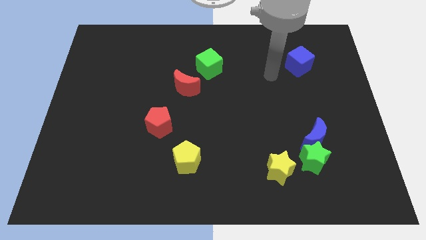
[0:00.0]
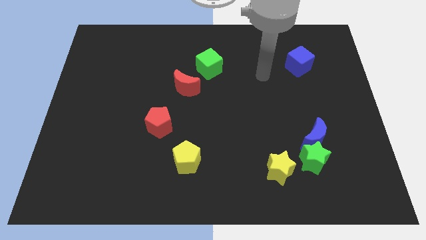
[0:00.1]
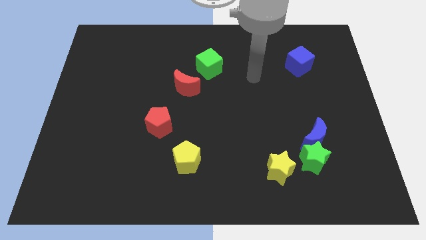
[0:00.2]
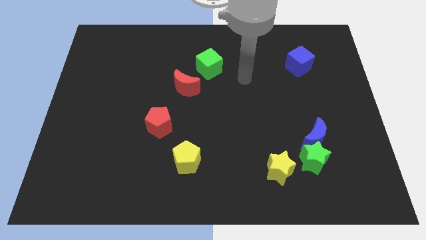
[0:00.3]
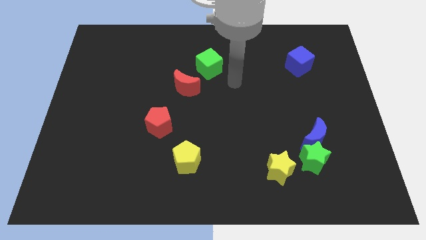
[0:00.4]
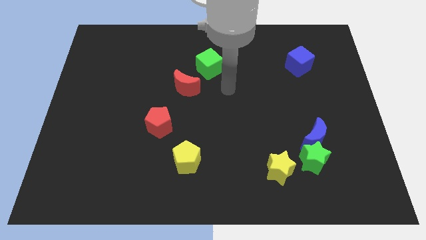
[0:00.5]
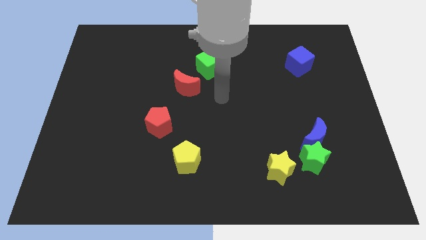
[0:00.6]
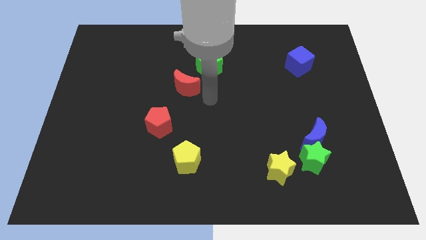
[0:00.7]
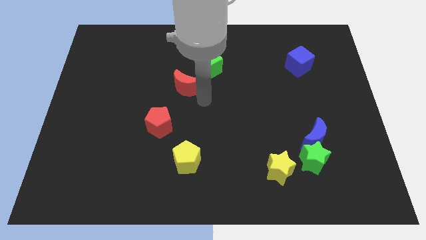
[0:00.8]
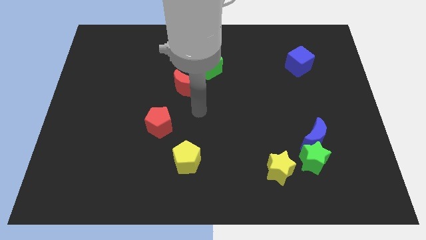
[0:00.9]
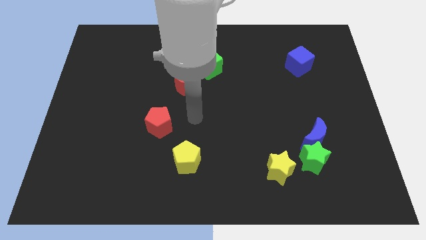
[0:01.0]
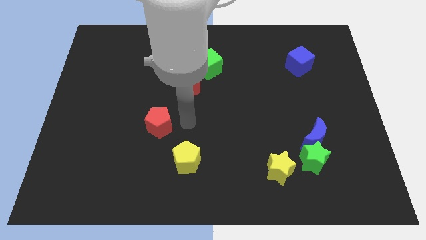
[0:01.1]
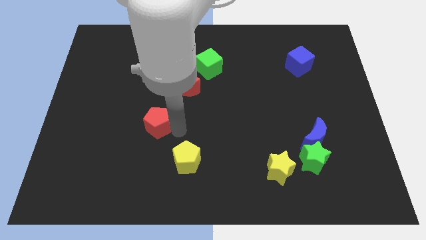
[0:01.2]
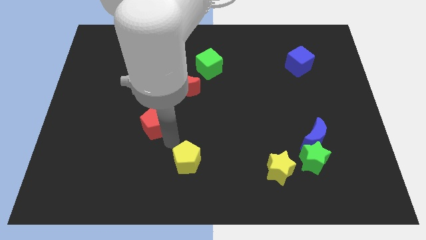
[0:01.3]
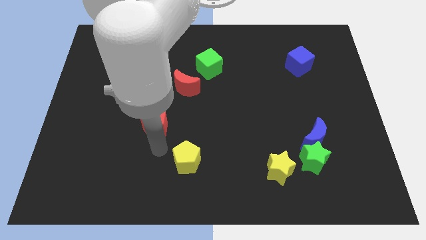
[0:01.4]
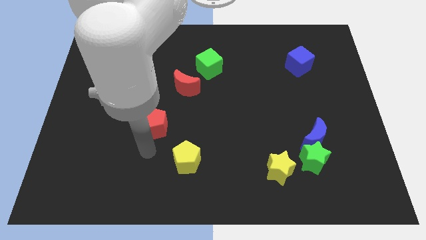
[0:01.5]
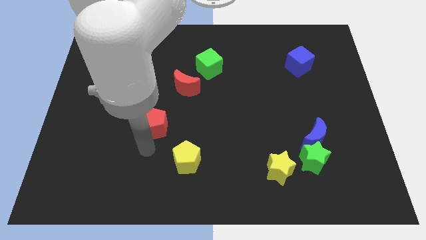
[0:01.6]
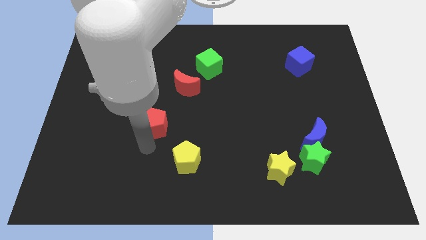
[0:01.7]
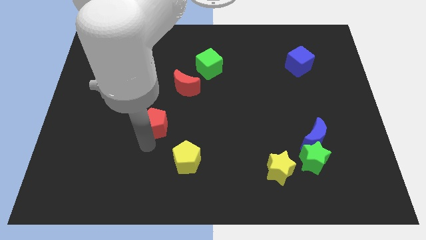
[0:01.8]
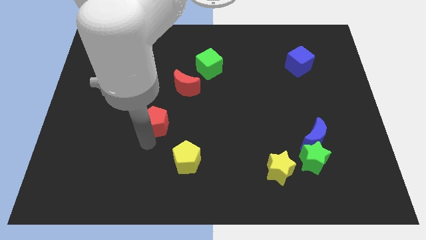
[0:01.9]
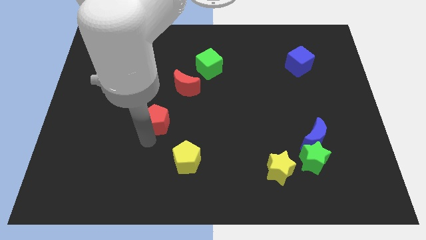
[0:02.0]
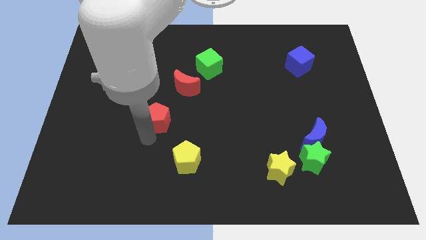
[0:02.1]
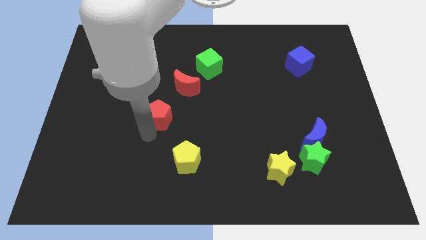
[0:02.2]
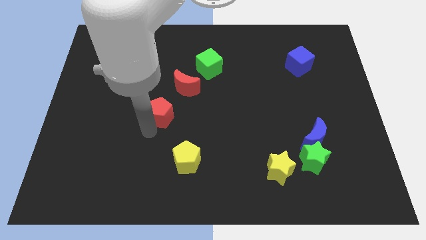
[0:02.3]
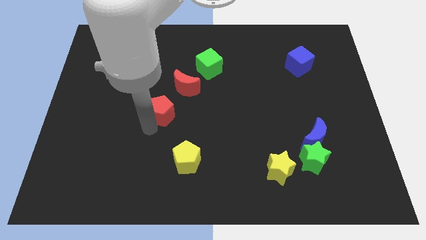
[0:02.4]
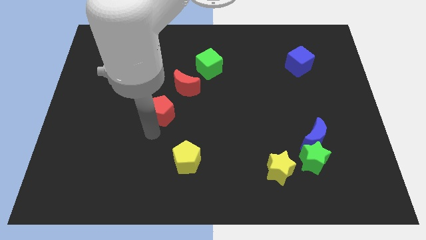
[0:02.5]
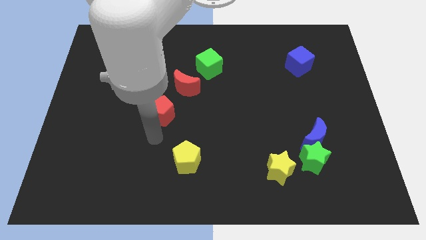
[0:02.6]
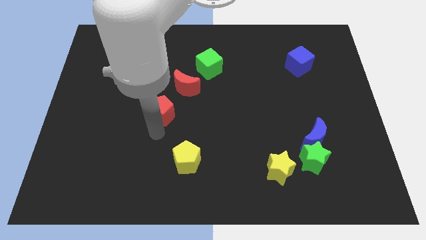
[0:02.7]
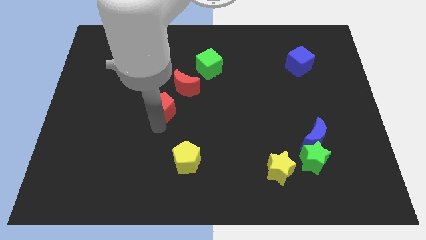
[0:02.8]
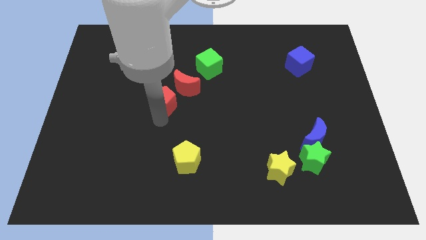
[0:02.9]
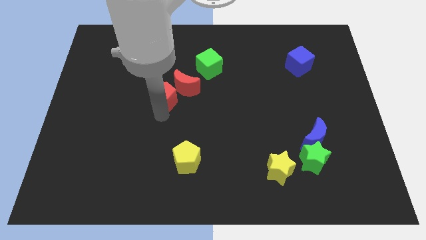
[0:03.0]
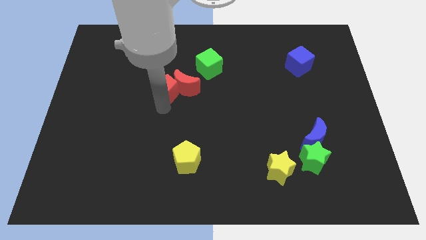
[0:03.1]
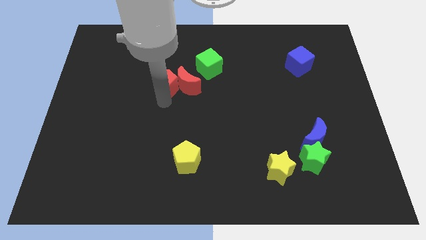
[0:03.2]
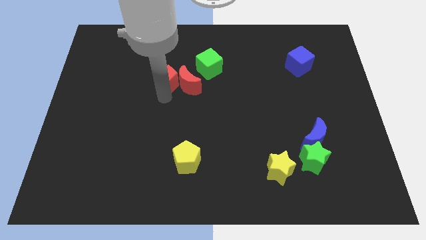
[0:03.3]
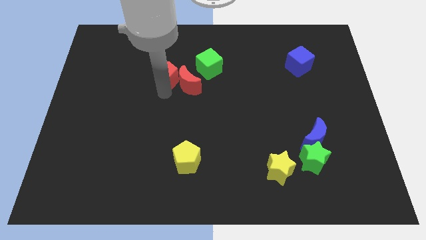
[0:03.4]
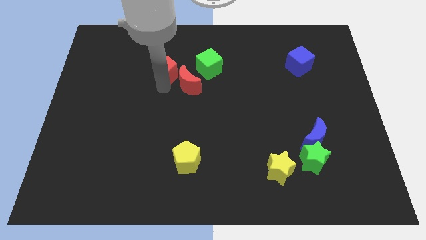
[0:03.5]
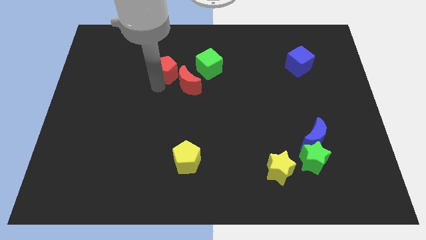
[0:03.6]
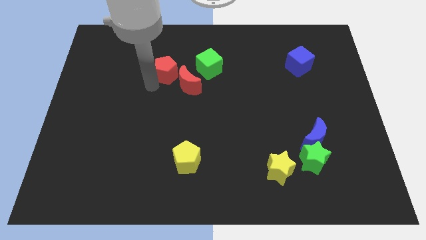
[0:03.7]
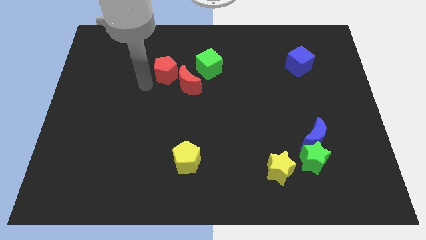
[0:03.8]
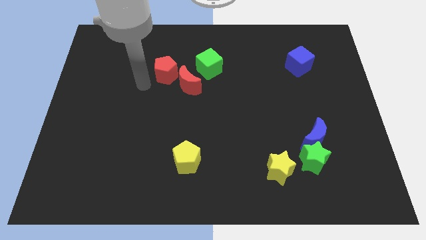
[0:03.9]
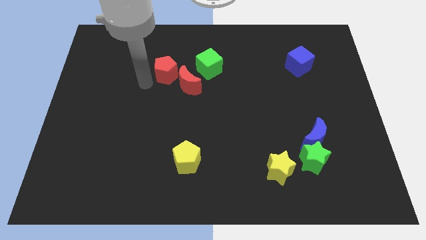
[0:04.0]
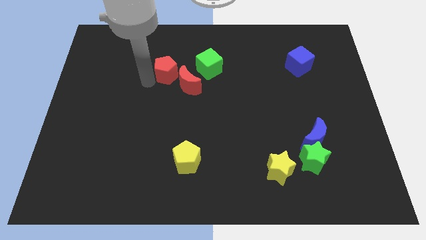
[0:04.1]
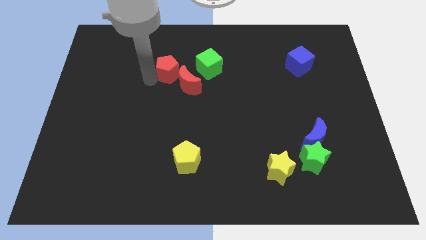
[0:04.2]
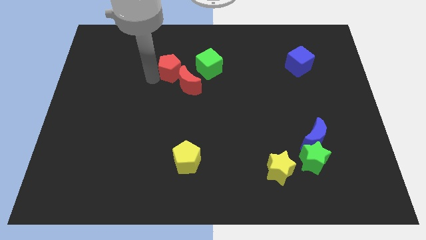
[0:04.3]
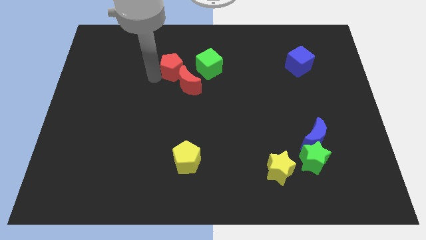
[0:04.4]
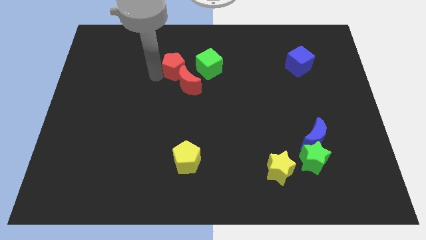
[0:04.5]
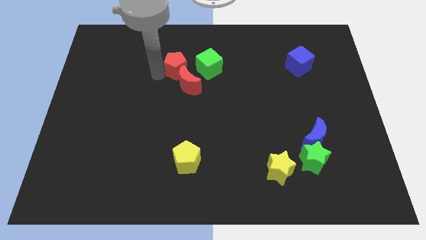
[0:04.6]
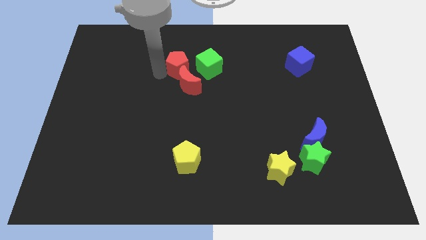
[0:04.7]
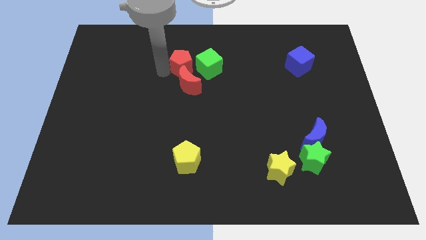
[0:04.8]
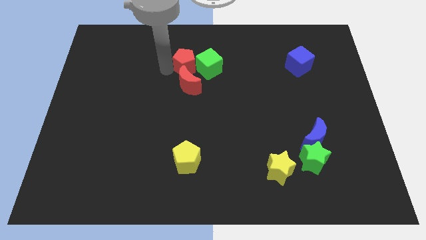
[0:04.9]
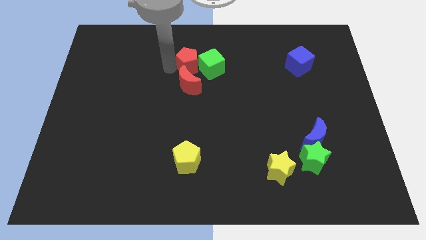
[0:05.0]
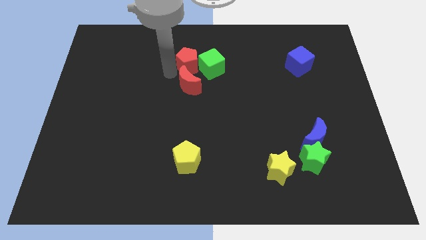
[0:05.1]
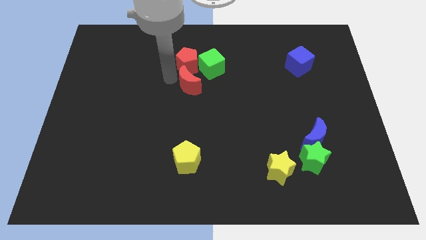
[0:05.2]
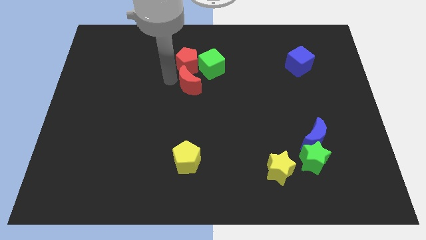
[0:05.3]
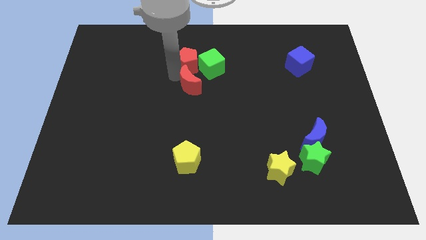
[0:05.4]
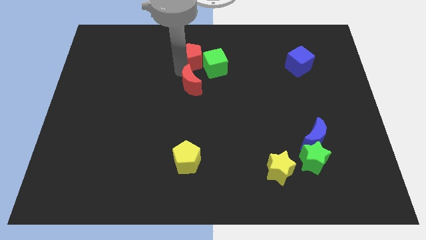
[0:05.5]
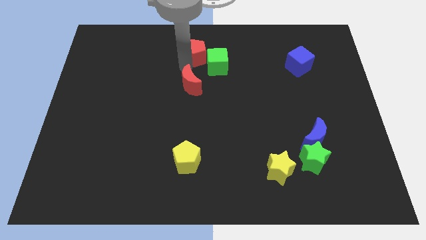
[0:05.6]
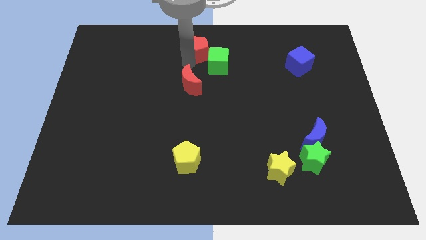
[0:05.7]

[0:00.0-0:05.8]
slide the red pentagon to the top side

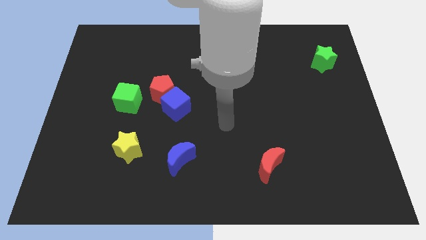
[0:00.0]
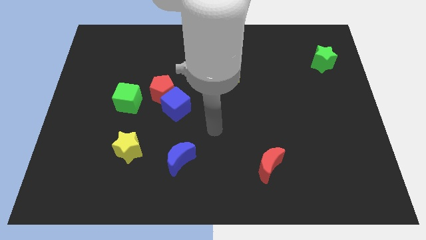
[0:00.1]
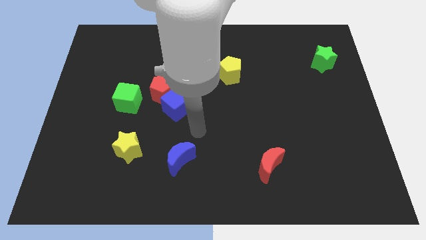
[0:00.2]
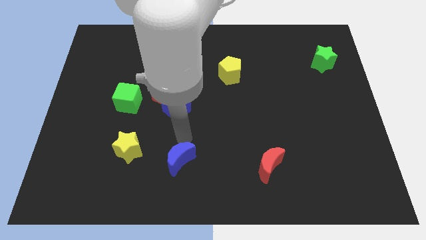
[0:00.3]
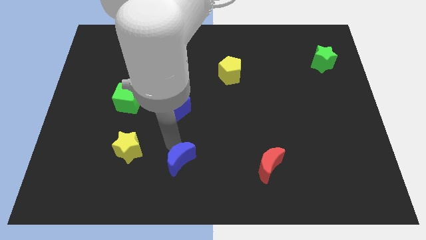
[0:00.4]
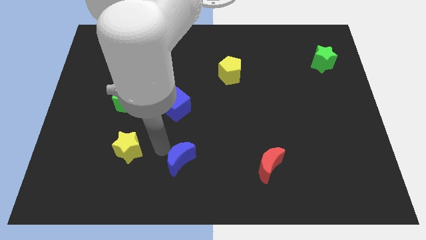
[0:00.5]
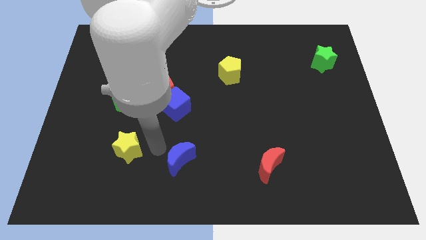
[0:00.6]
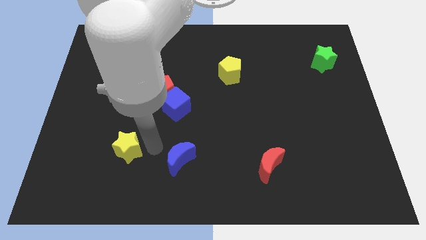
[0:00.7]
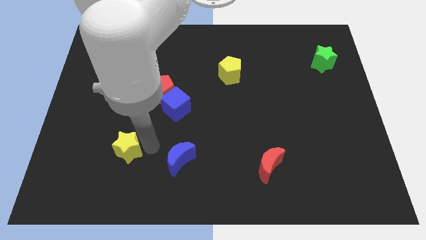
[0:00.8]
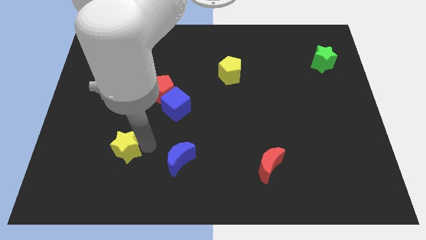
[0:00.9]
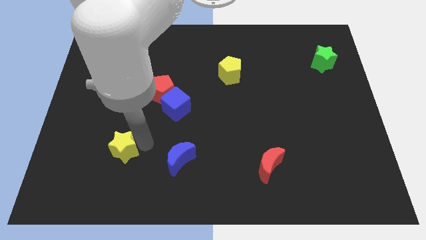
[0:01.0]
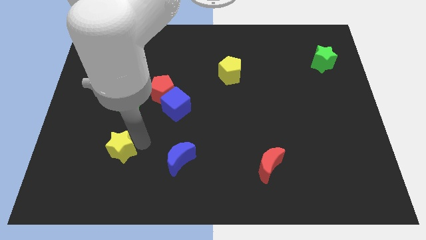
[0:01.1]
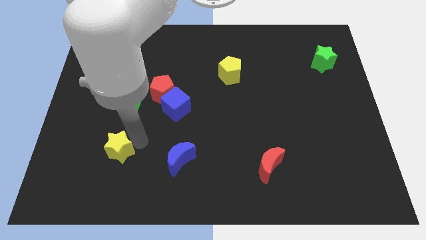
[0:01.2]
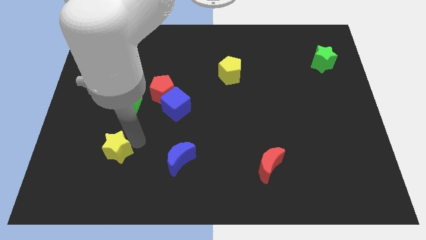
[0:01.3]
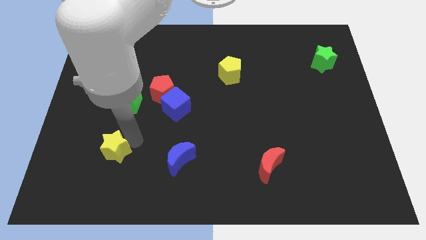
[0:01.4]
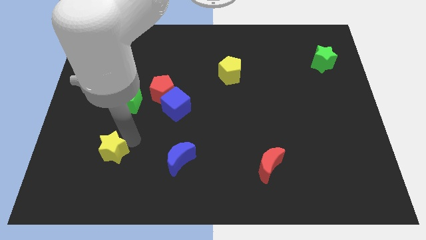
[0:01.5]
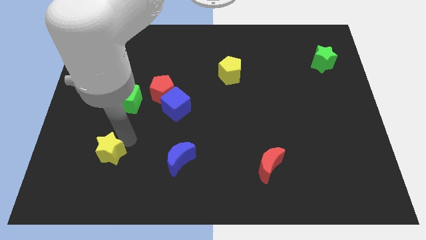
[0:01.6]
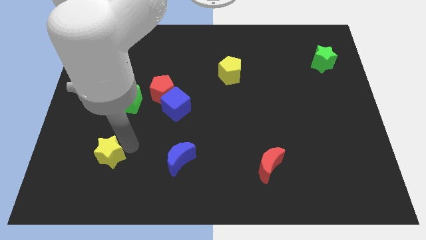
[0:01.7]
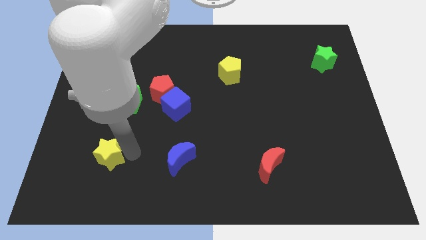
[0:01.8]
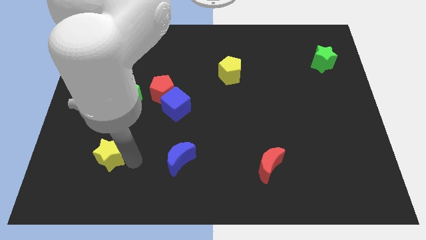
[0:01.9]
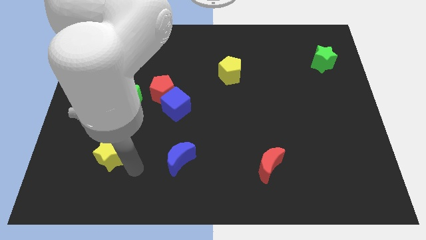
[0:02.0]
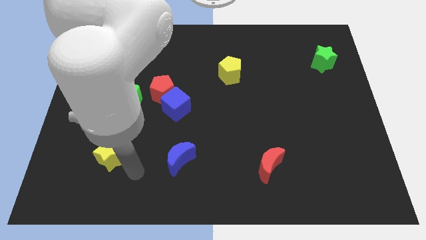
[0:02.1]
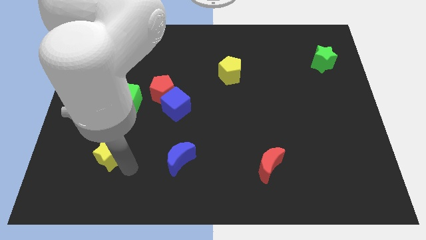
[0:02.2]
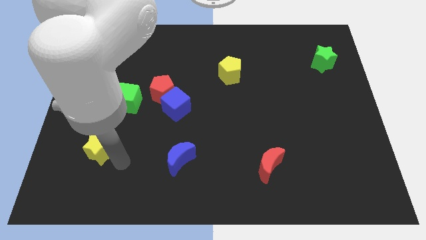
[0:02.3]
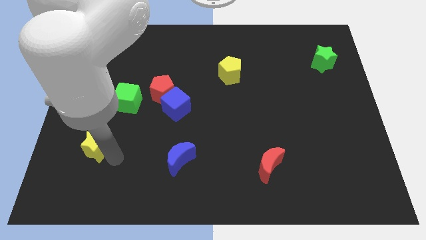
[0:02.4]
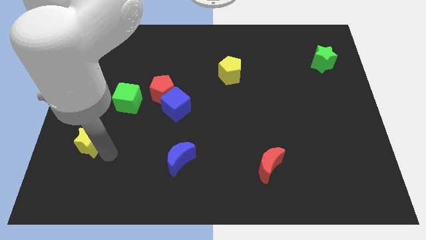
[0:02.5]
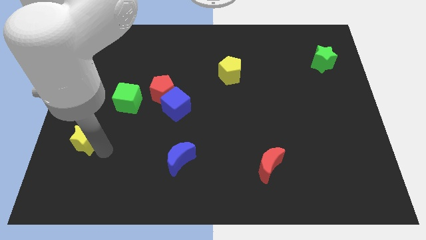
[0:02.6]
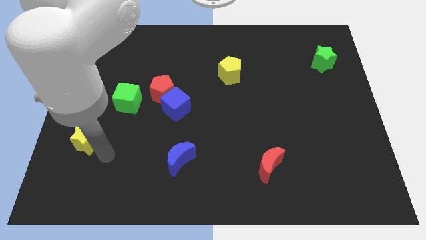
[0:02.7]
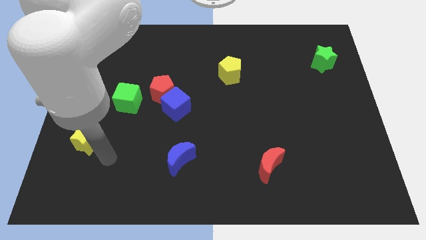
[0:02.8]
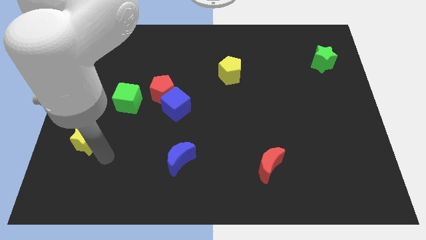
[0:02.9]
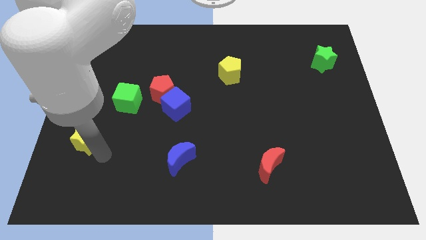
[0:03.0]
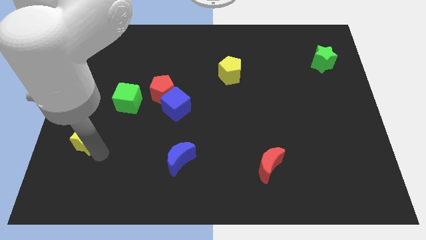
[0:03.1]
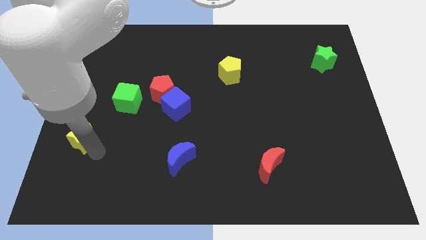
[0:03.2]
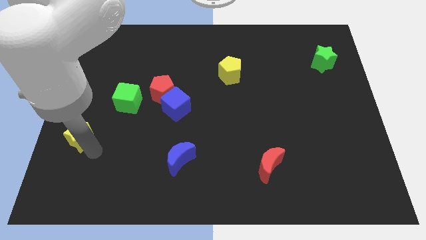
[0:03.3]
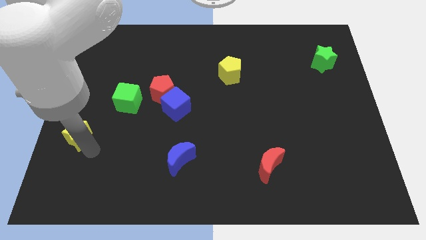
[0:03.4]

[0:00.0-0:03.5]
put the yellow star to the left side
